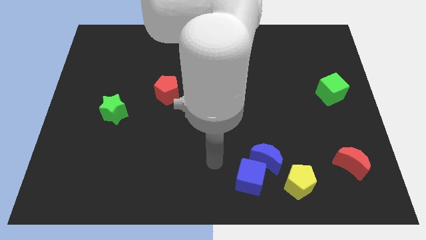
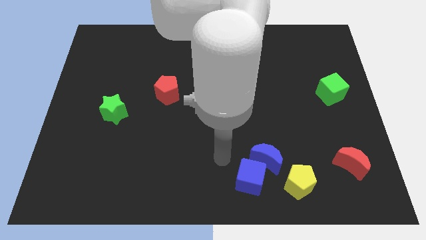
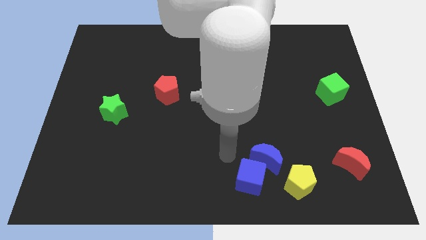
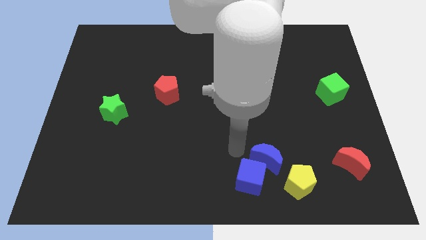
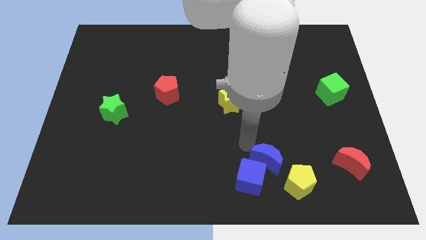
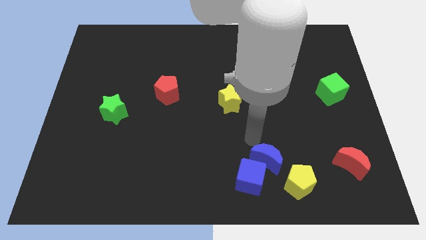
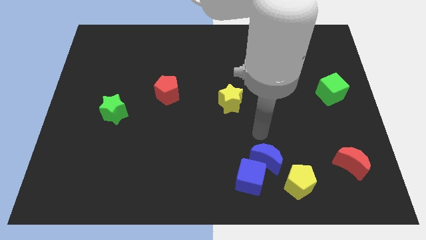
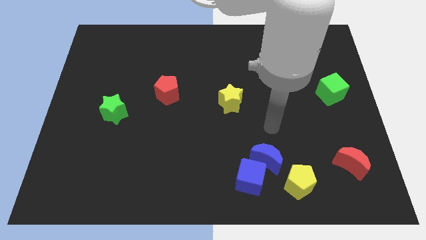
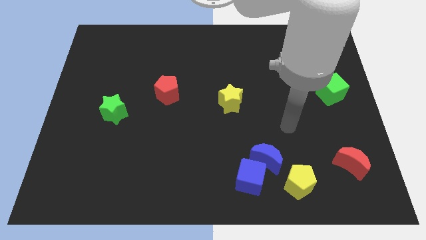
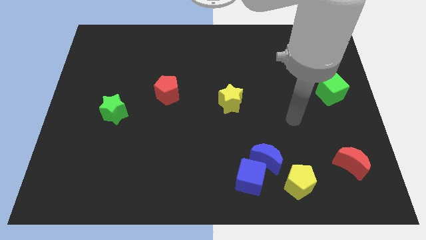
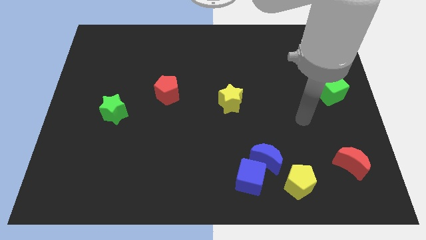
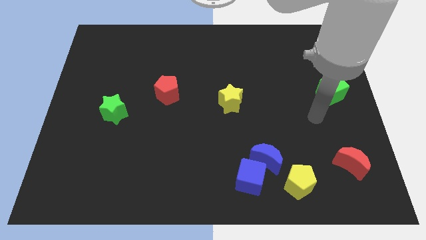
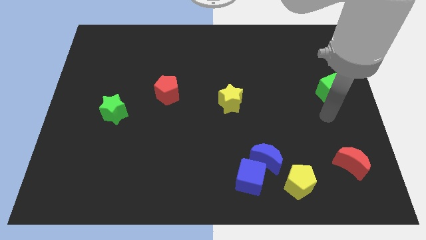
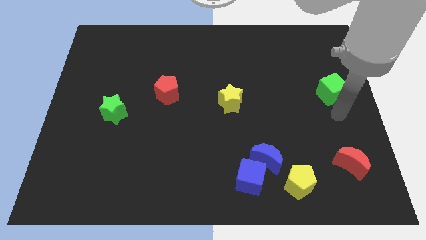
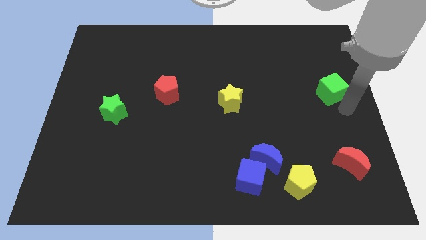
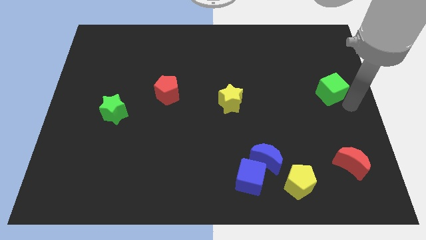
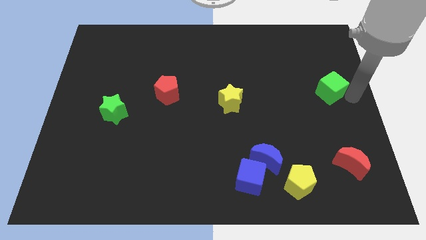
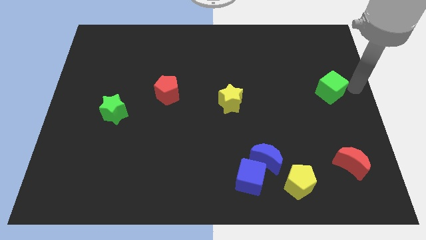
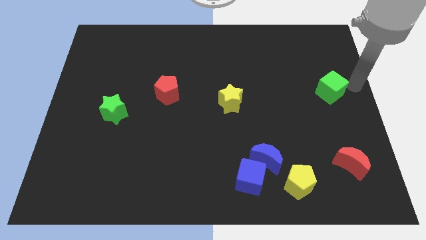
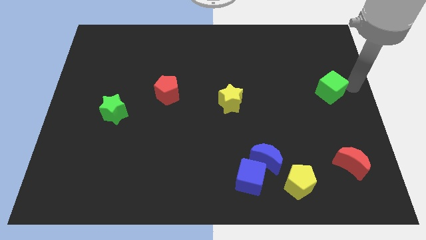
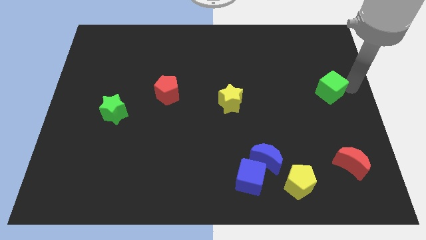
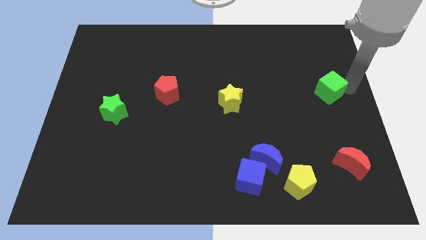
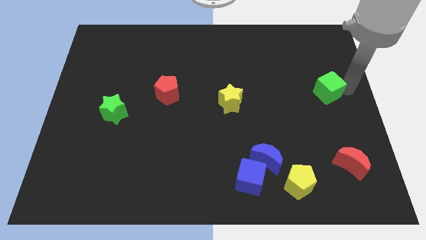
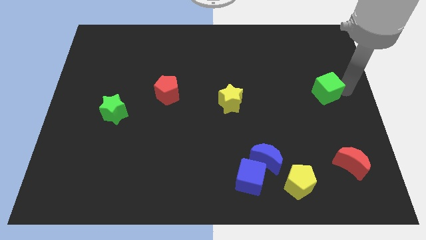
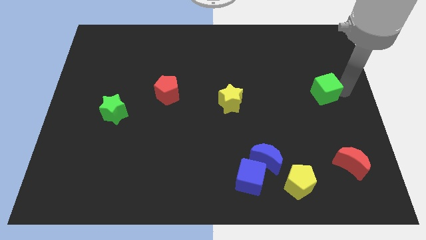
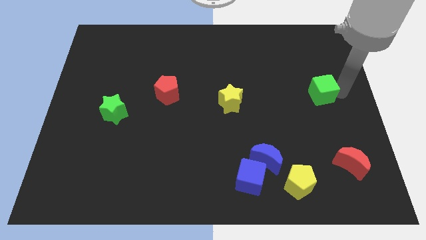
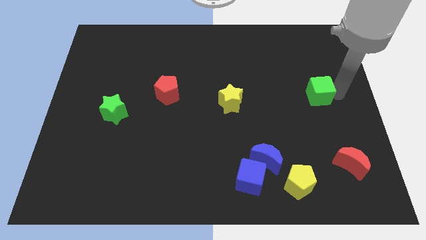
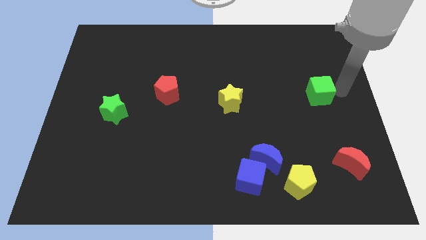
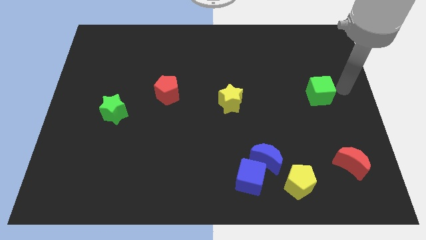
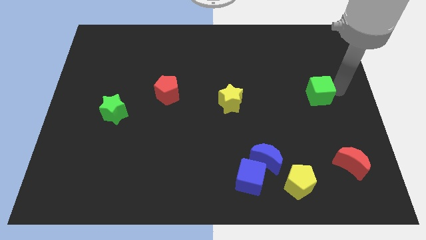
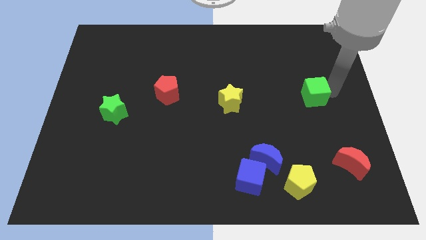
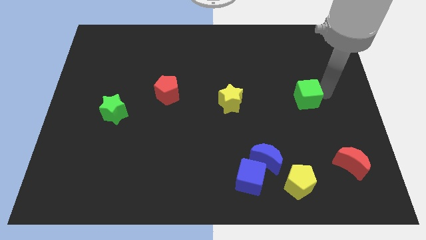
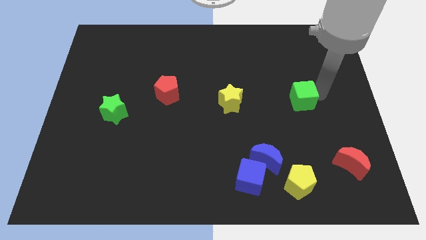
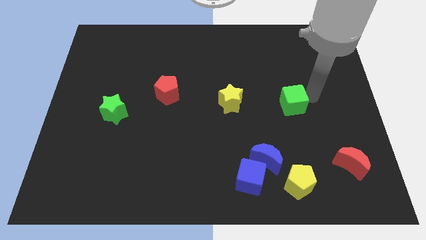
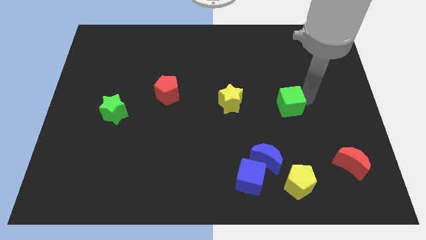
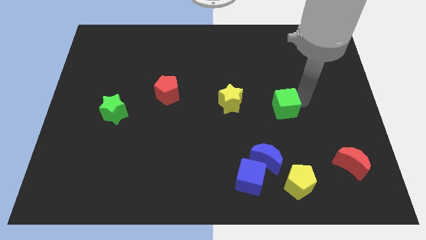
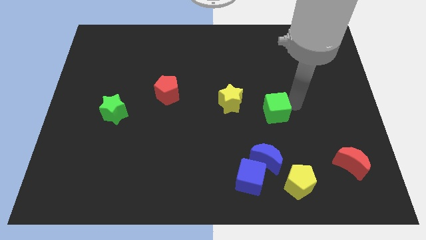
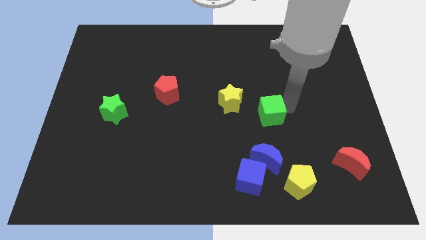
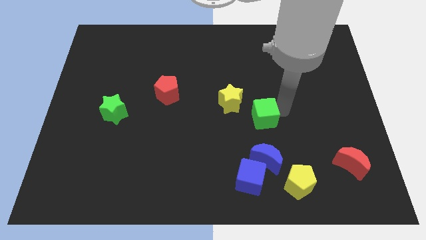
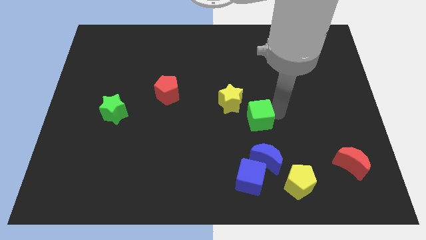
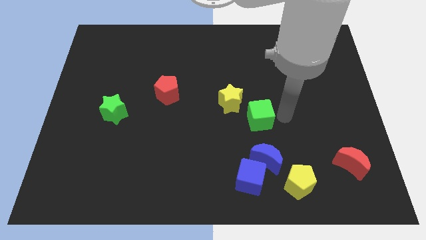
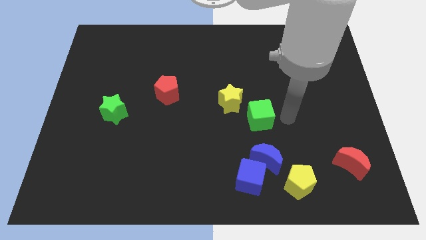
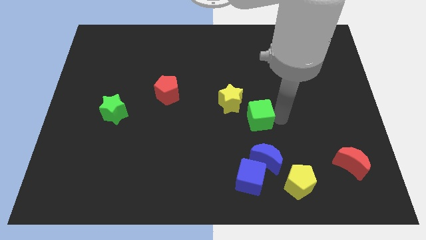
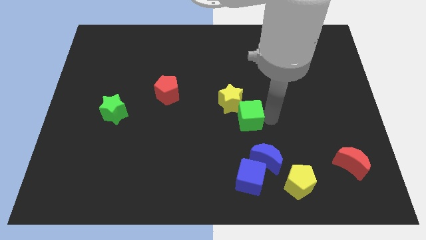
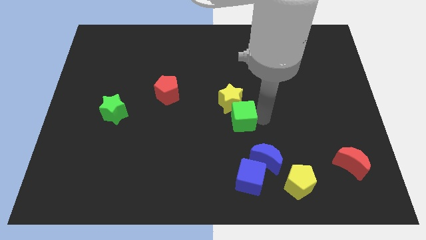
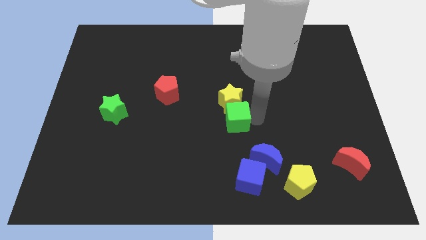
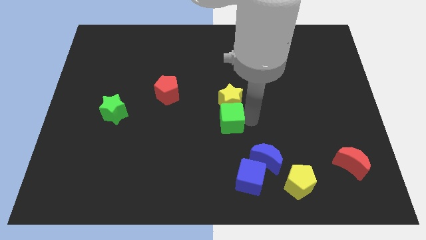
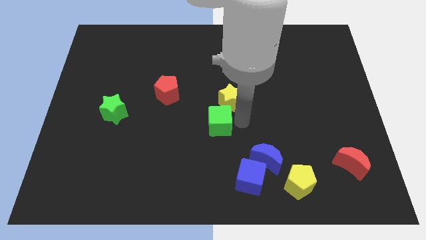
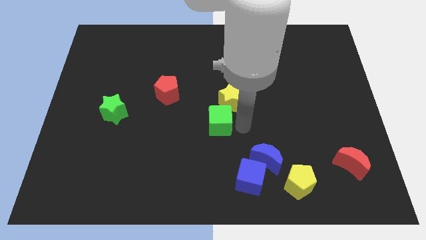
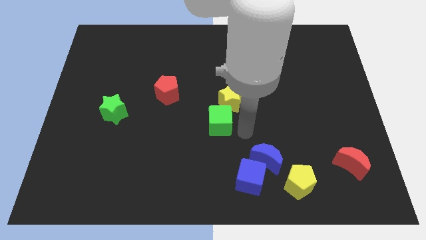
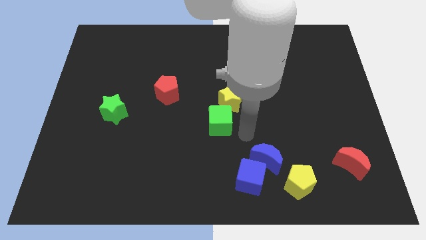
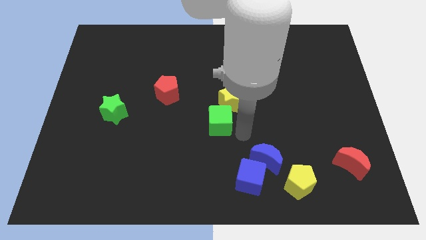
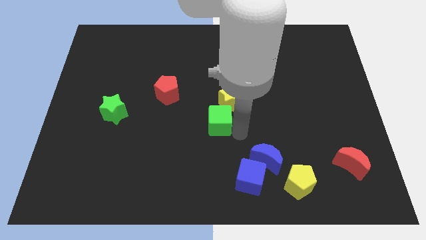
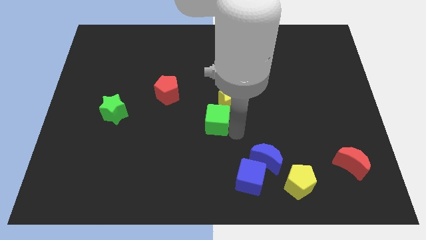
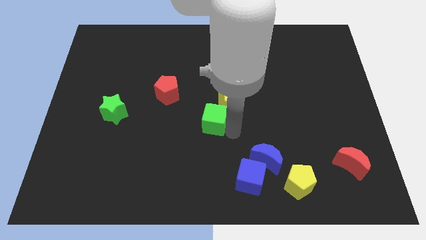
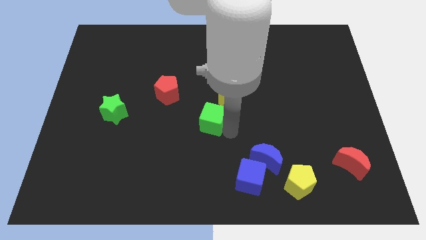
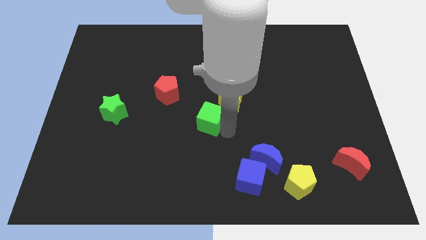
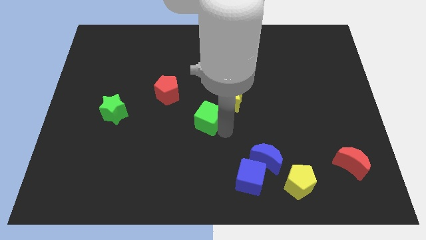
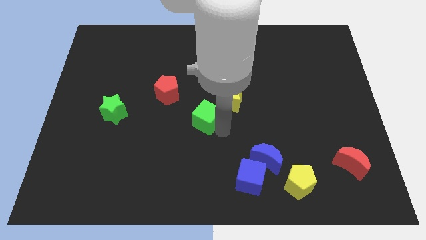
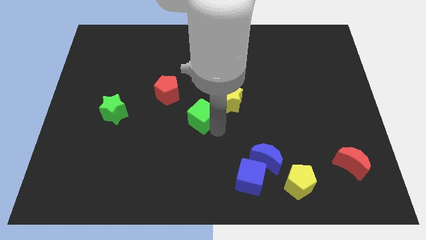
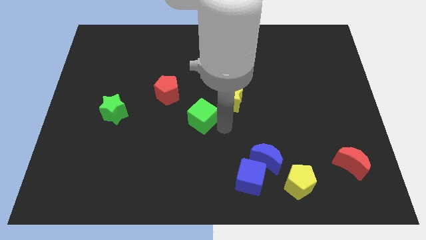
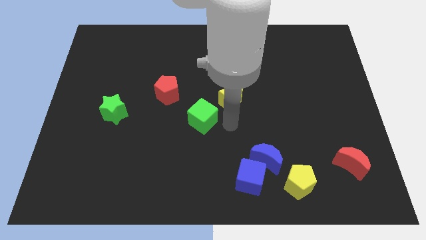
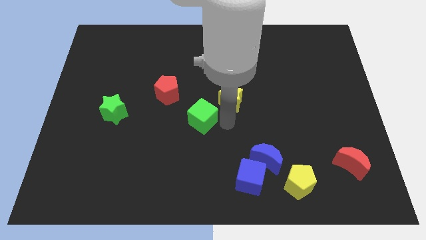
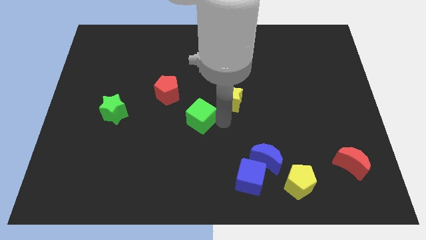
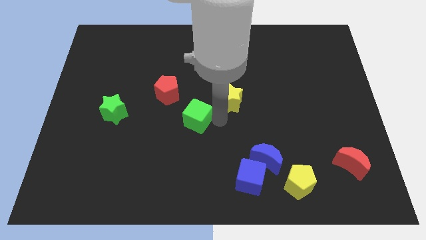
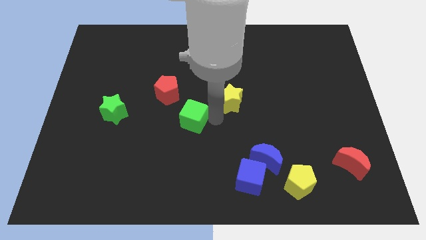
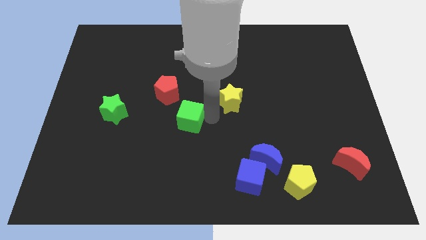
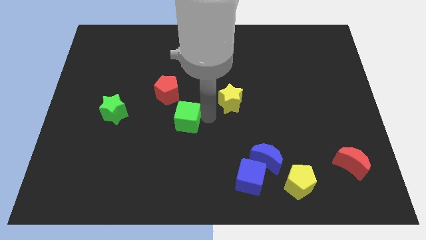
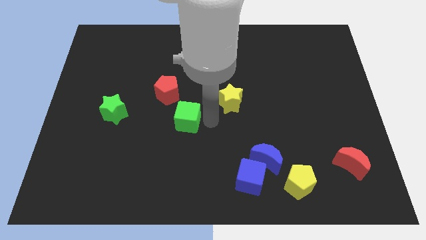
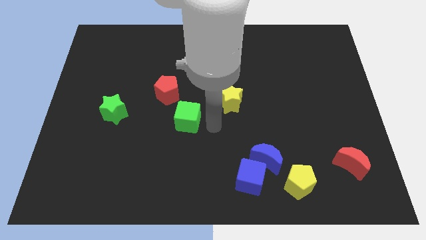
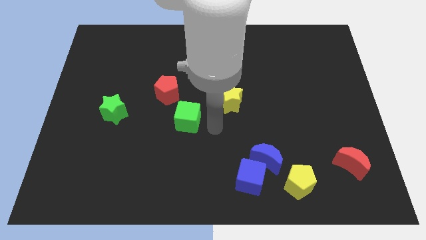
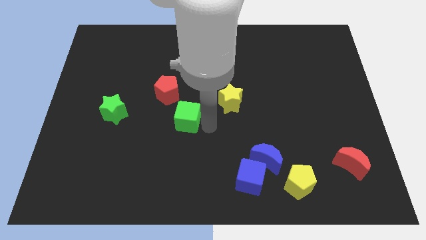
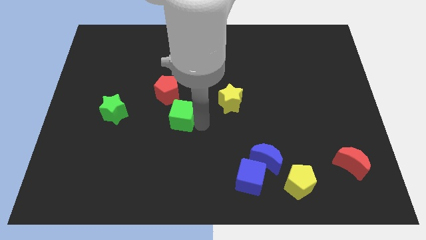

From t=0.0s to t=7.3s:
put the green cube to the right side of the green star
